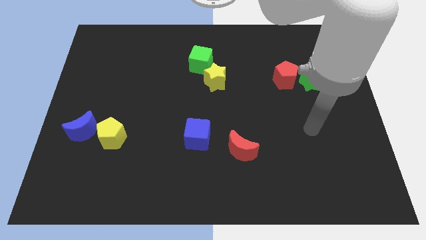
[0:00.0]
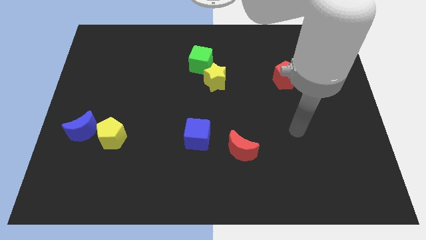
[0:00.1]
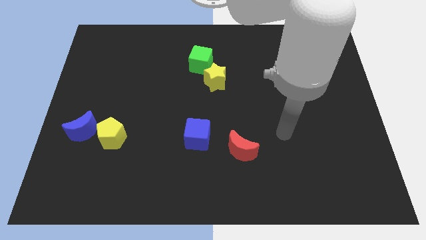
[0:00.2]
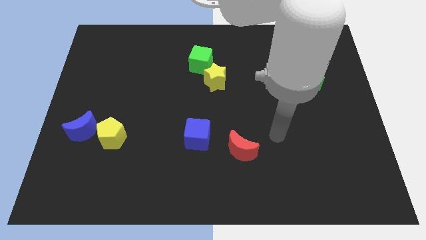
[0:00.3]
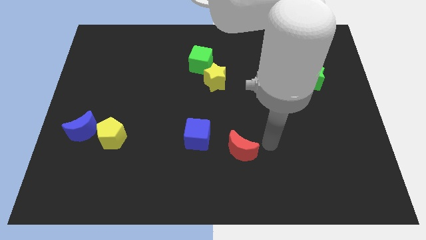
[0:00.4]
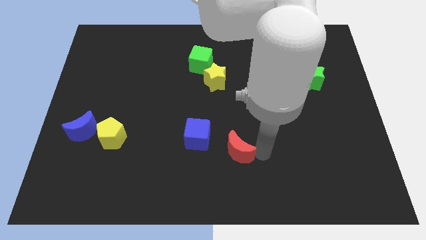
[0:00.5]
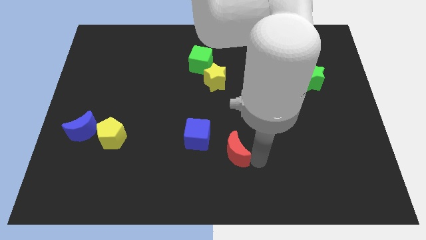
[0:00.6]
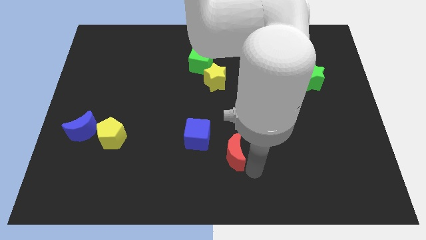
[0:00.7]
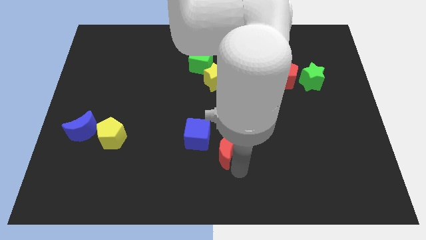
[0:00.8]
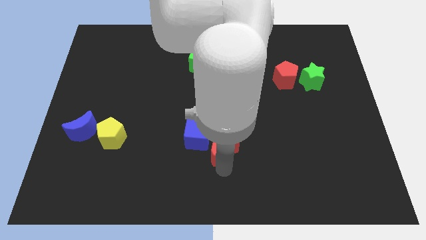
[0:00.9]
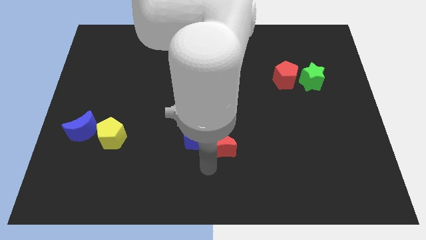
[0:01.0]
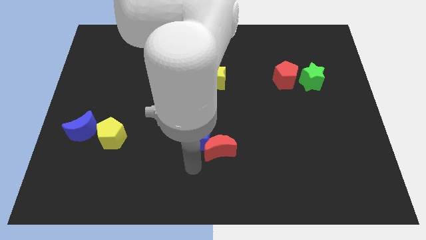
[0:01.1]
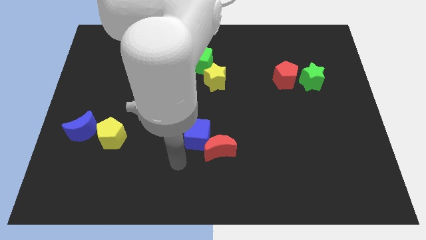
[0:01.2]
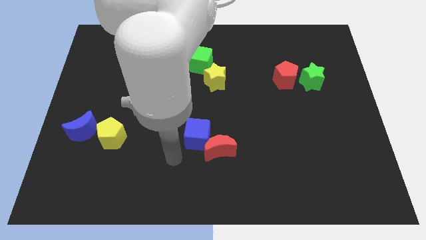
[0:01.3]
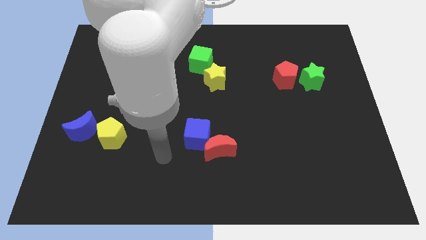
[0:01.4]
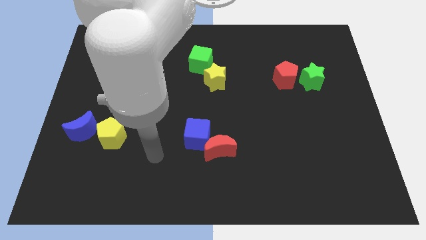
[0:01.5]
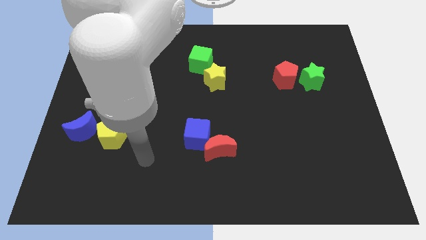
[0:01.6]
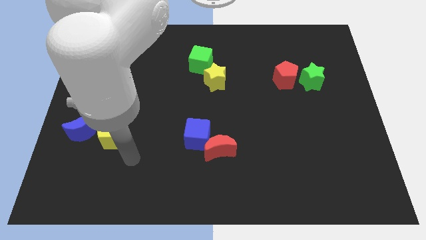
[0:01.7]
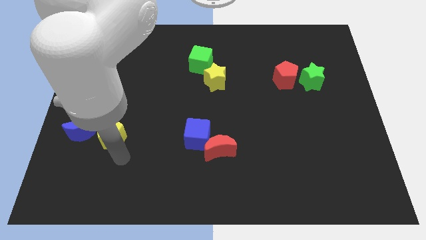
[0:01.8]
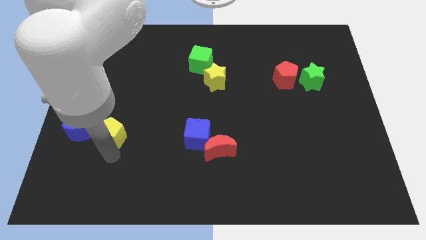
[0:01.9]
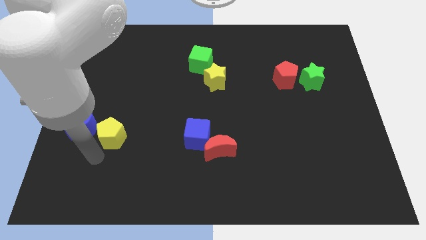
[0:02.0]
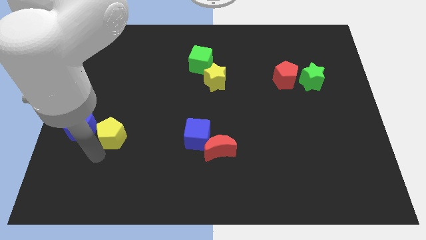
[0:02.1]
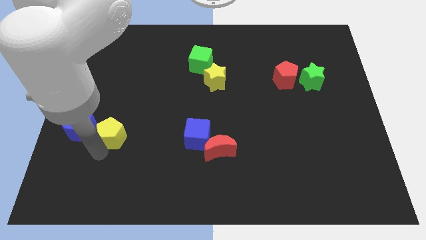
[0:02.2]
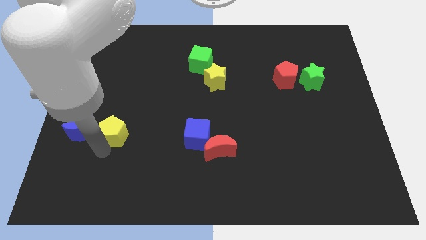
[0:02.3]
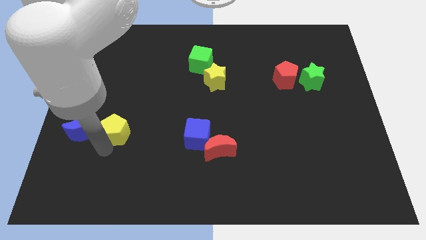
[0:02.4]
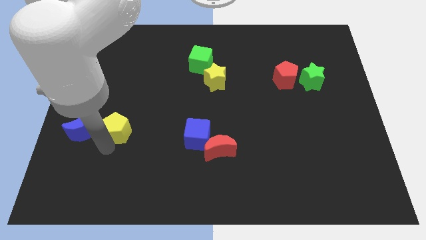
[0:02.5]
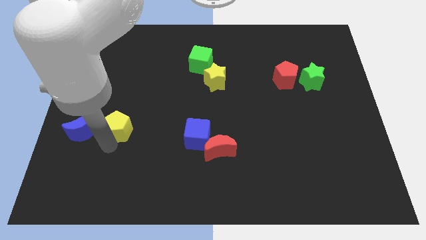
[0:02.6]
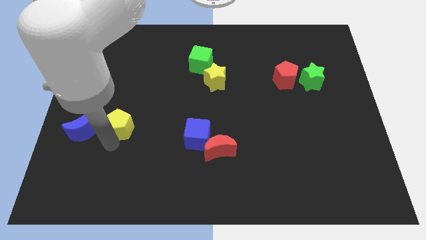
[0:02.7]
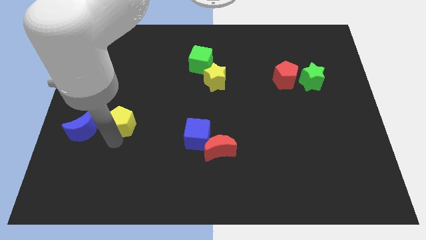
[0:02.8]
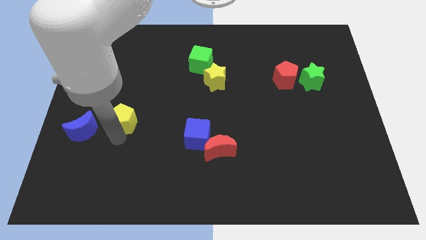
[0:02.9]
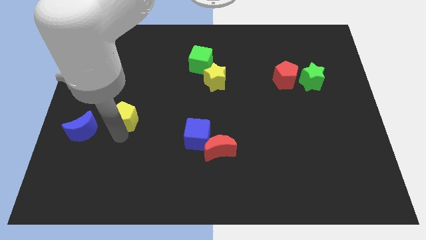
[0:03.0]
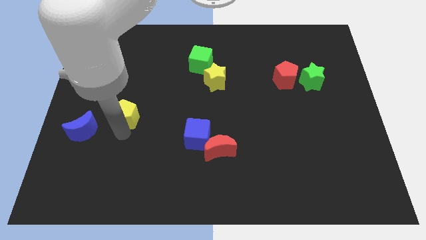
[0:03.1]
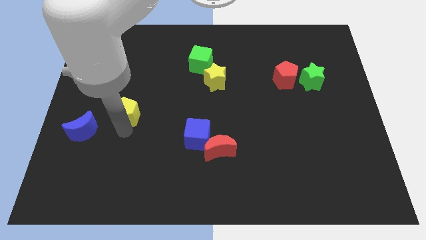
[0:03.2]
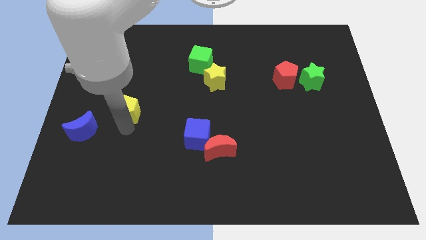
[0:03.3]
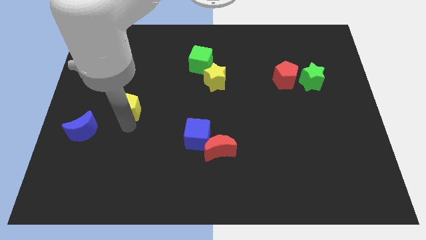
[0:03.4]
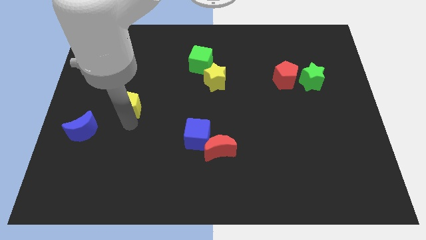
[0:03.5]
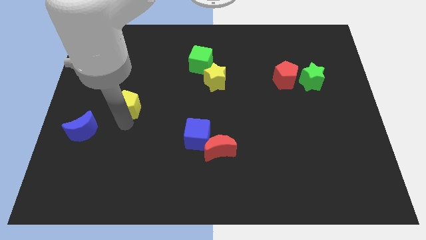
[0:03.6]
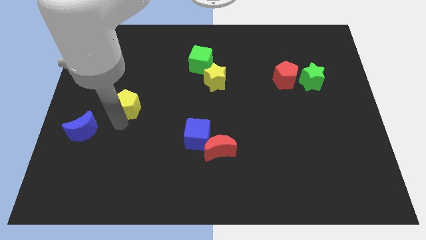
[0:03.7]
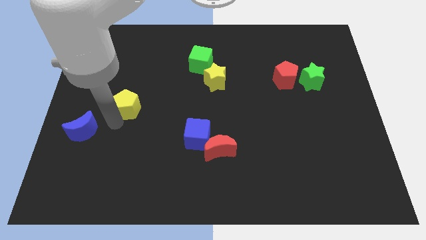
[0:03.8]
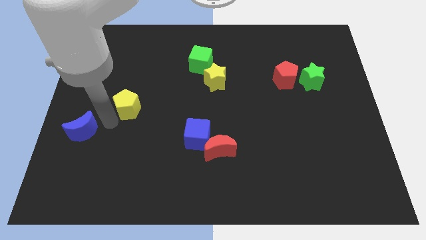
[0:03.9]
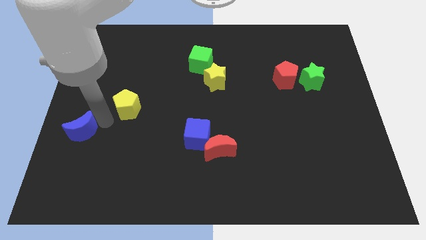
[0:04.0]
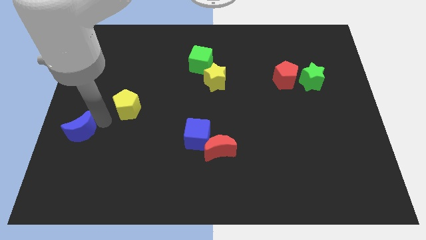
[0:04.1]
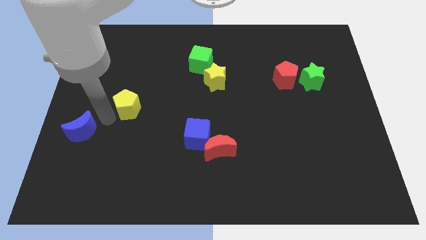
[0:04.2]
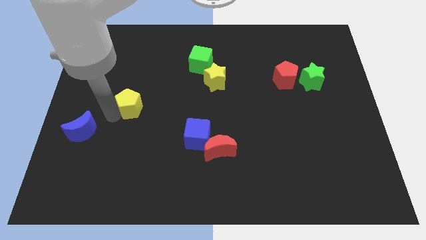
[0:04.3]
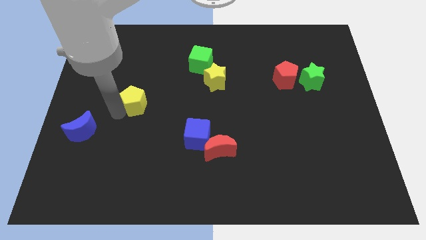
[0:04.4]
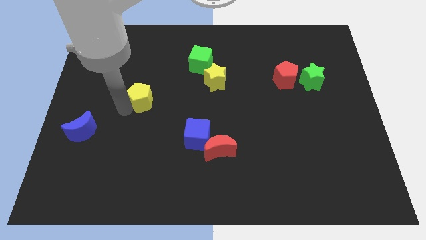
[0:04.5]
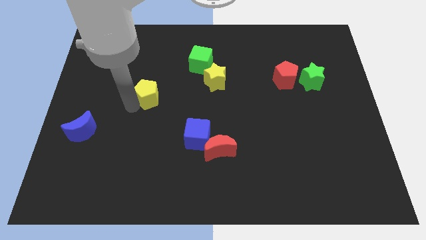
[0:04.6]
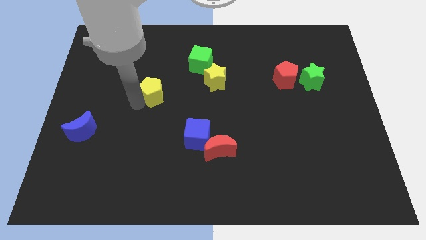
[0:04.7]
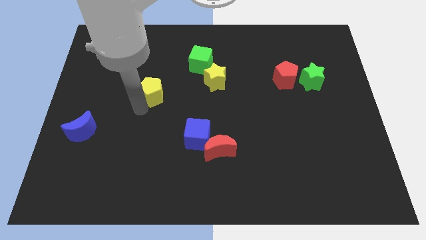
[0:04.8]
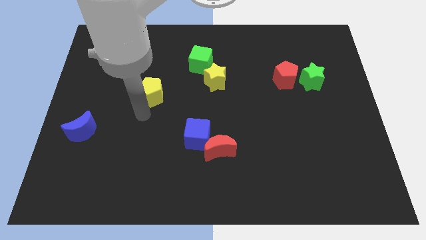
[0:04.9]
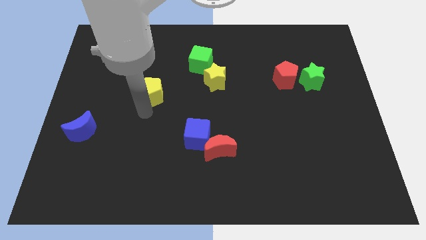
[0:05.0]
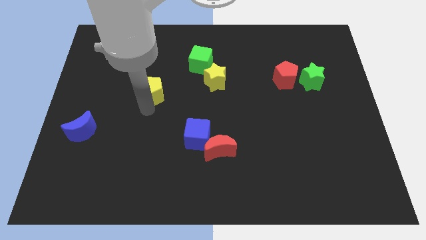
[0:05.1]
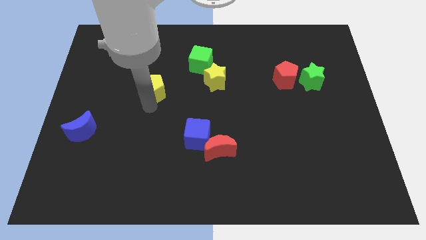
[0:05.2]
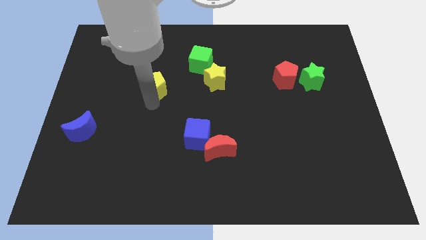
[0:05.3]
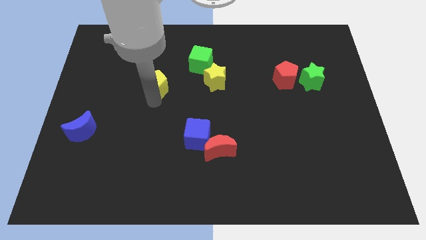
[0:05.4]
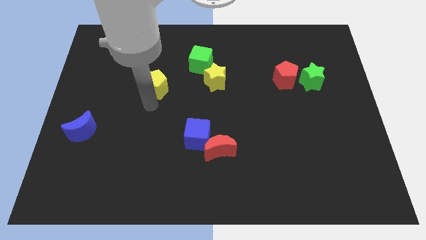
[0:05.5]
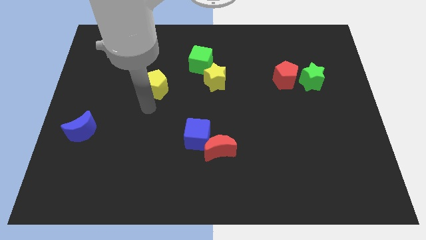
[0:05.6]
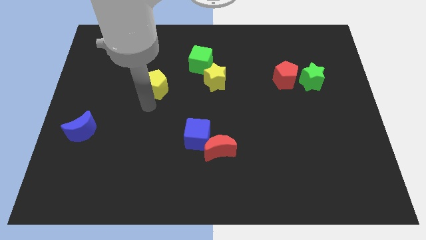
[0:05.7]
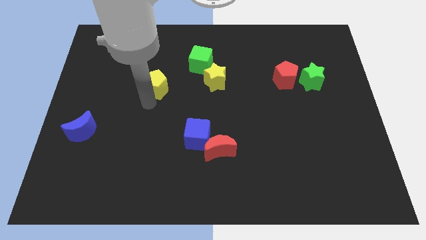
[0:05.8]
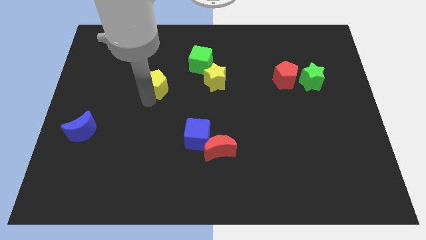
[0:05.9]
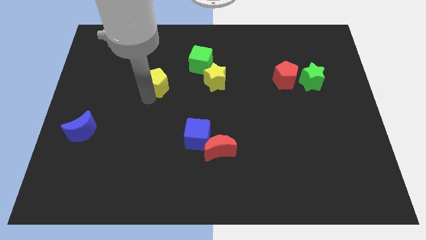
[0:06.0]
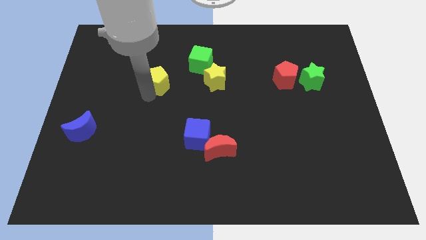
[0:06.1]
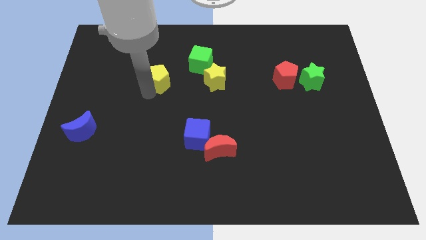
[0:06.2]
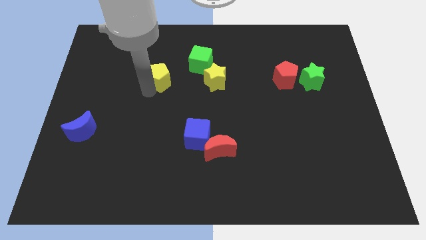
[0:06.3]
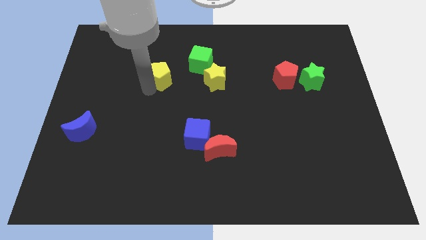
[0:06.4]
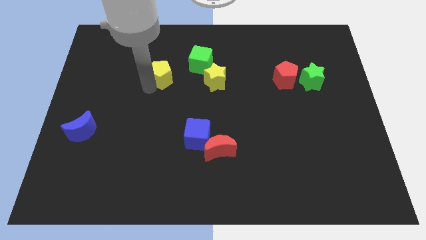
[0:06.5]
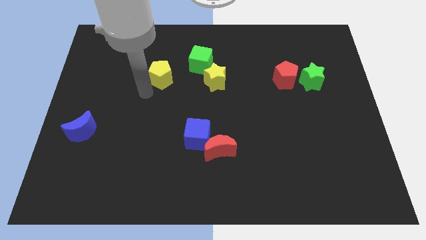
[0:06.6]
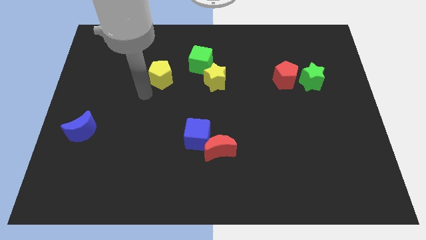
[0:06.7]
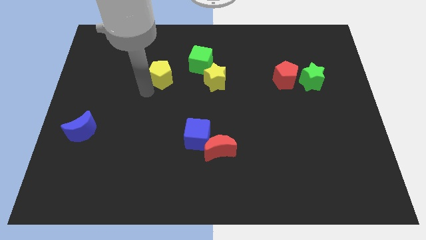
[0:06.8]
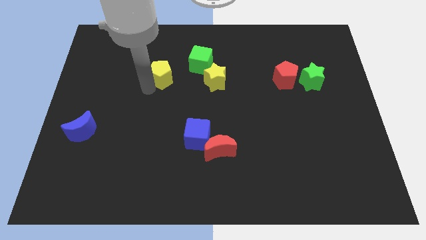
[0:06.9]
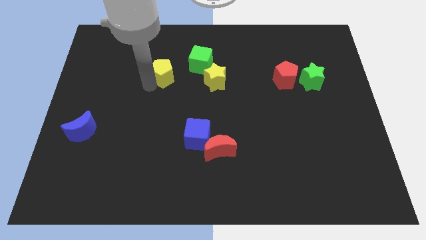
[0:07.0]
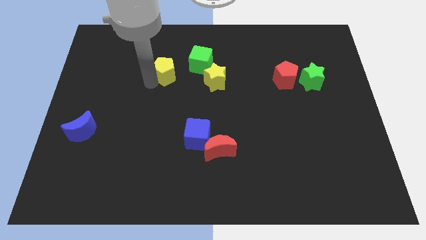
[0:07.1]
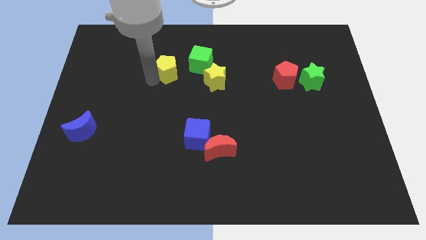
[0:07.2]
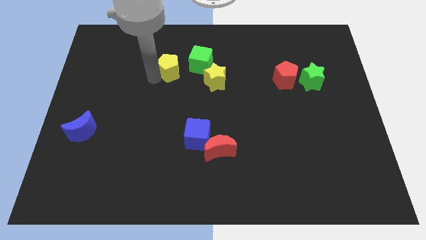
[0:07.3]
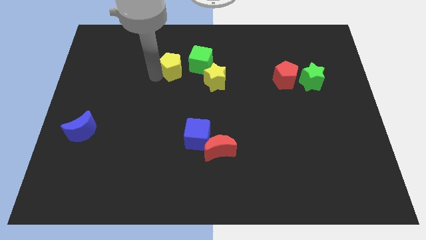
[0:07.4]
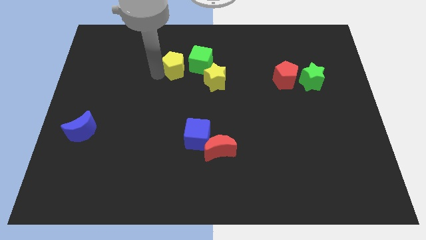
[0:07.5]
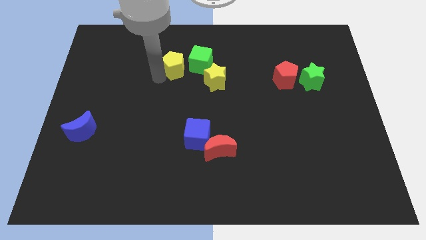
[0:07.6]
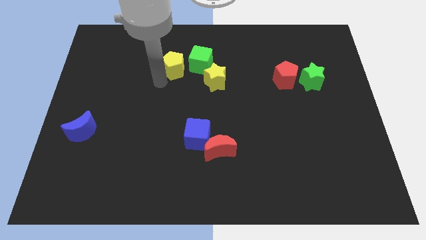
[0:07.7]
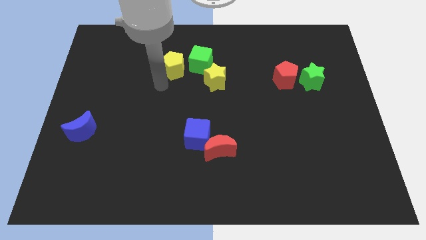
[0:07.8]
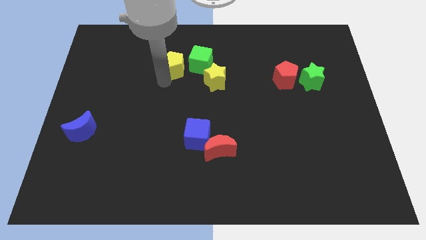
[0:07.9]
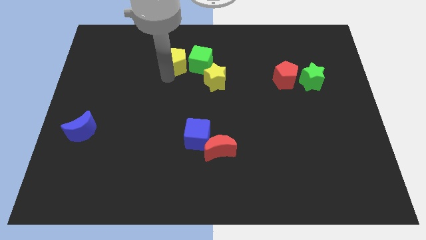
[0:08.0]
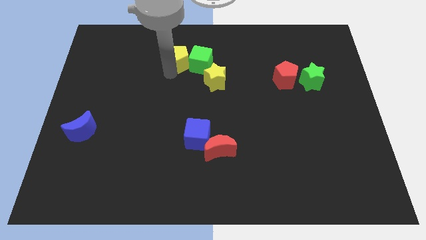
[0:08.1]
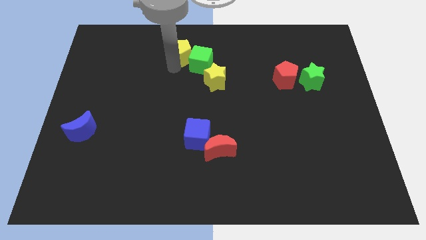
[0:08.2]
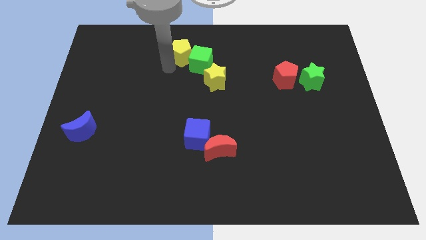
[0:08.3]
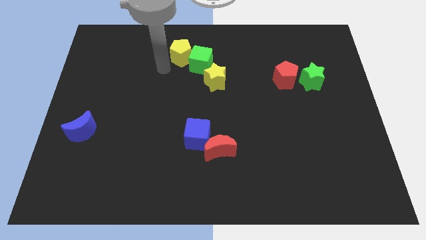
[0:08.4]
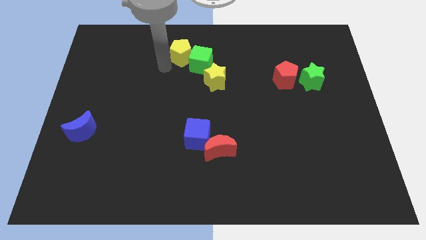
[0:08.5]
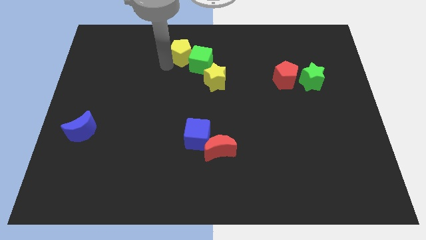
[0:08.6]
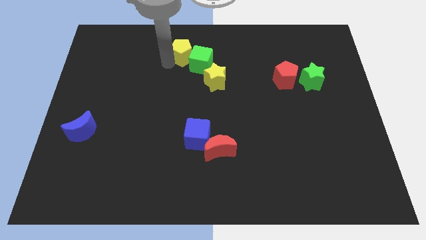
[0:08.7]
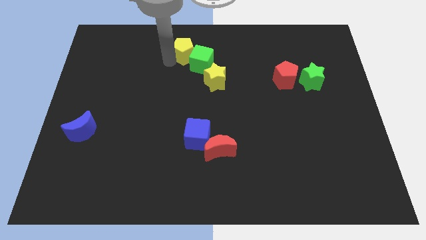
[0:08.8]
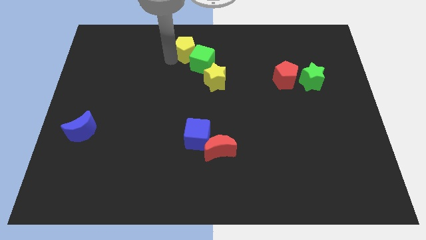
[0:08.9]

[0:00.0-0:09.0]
slide the yellow pentagon to the towards your base
